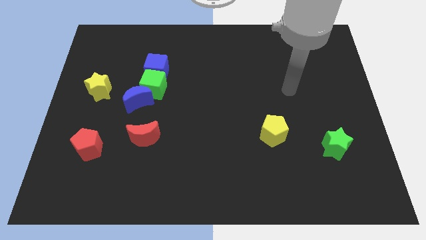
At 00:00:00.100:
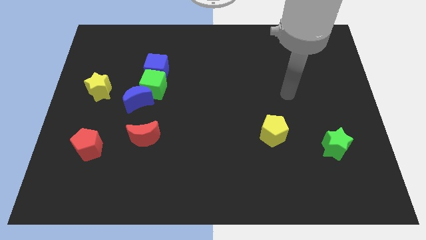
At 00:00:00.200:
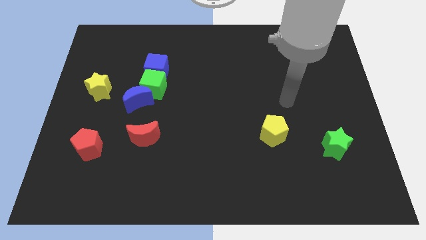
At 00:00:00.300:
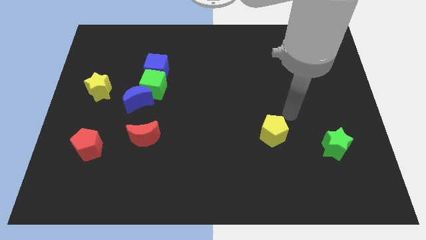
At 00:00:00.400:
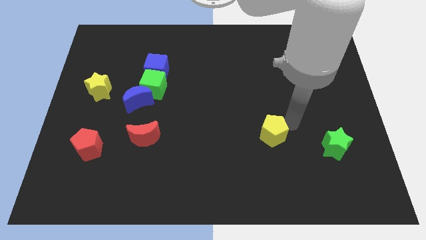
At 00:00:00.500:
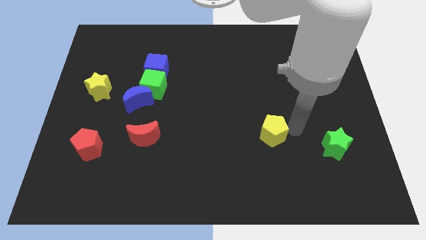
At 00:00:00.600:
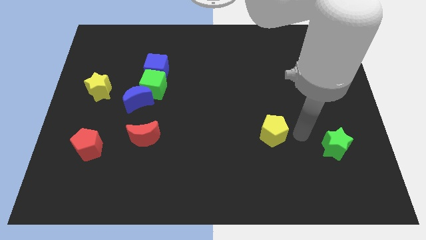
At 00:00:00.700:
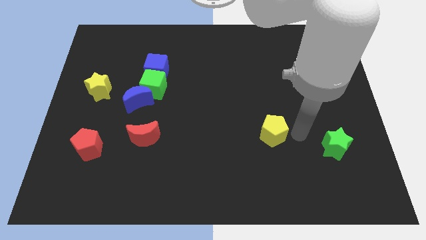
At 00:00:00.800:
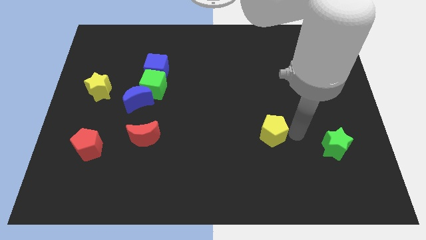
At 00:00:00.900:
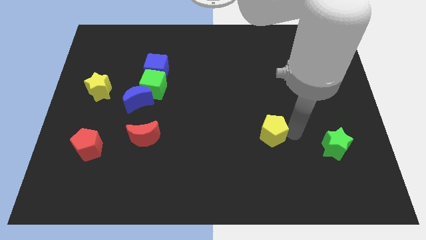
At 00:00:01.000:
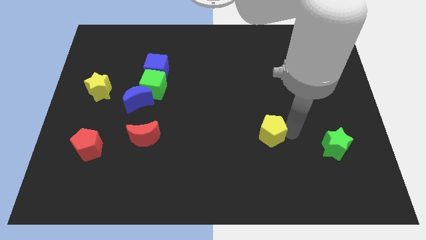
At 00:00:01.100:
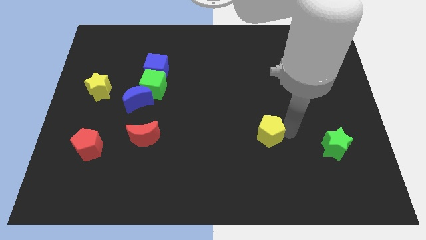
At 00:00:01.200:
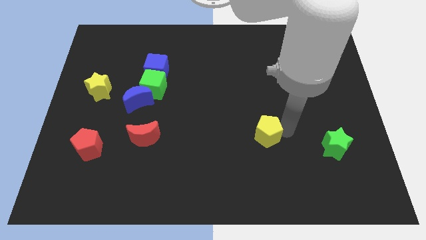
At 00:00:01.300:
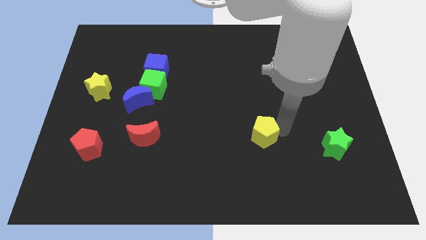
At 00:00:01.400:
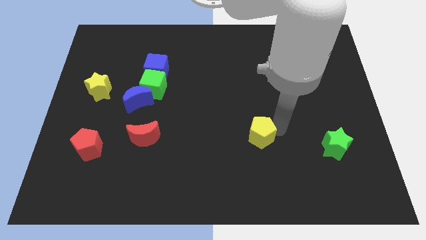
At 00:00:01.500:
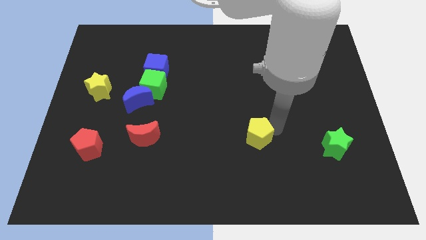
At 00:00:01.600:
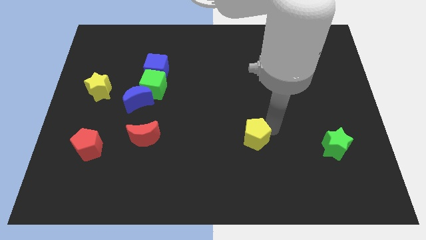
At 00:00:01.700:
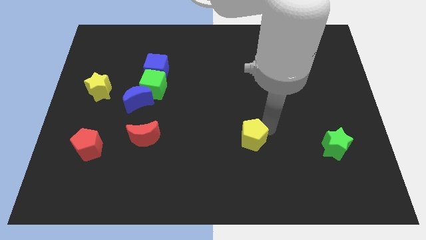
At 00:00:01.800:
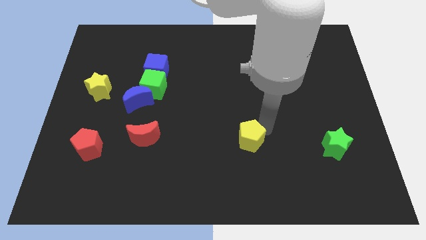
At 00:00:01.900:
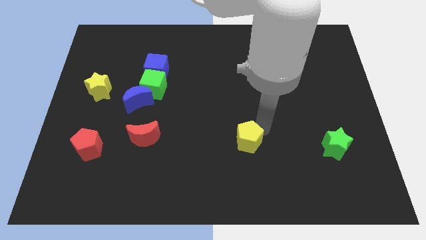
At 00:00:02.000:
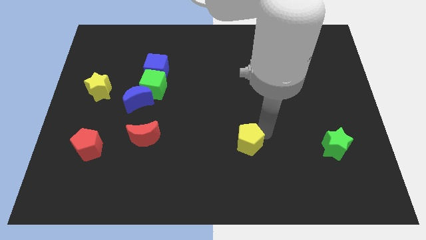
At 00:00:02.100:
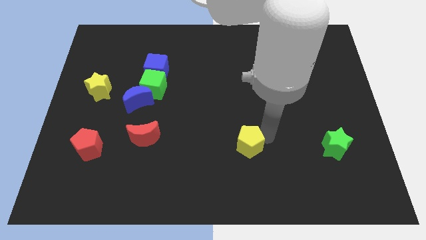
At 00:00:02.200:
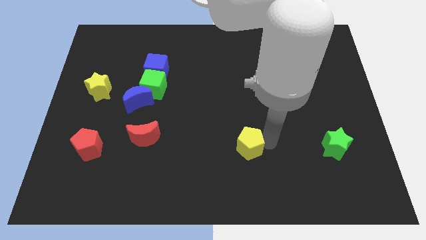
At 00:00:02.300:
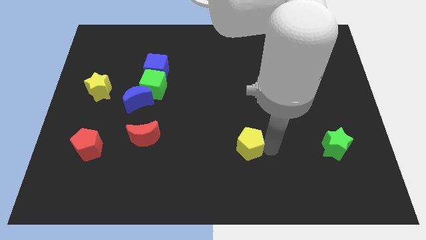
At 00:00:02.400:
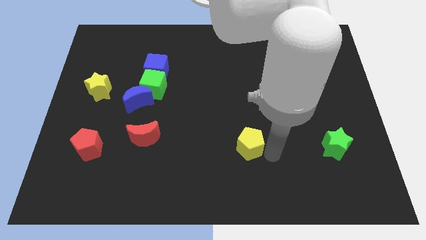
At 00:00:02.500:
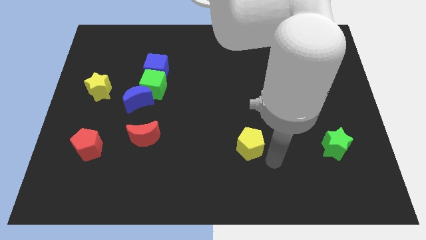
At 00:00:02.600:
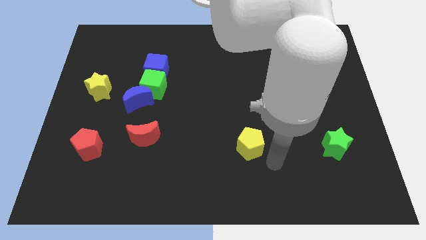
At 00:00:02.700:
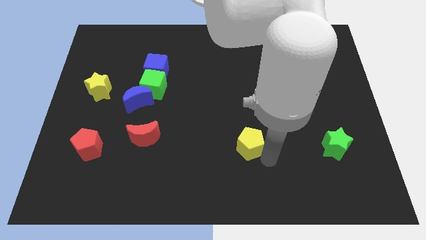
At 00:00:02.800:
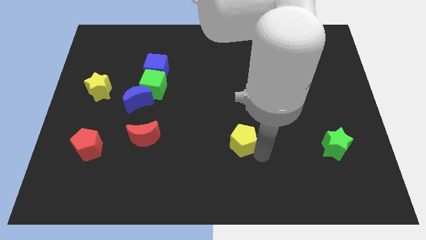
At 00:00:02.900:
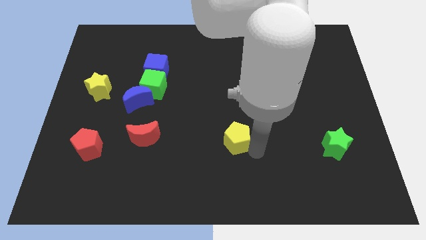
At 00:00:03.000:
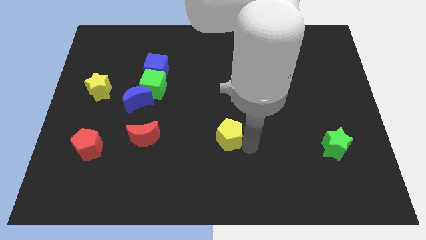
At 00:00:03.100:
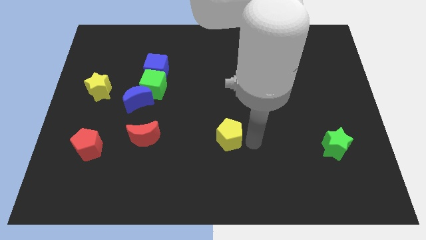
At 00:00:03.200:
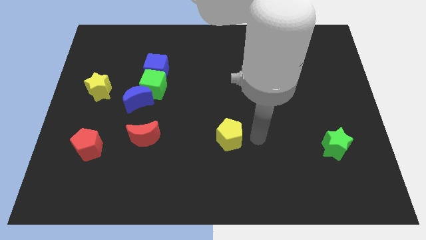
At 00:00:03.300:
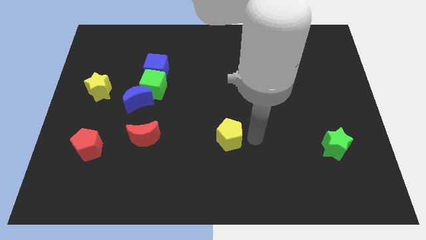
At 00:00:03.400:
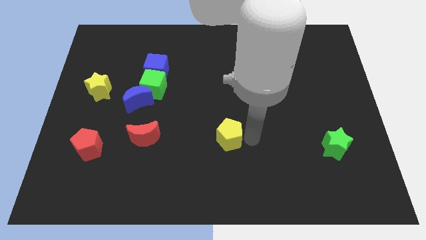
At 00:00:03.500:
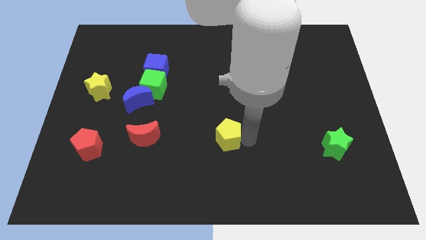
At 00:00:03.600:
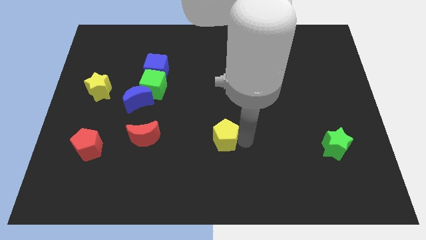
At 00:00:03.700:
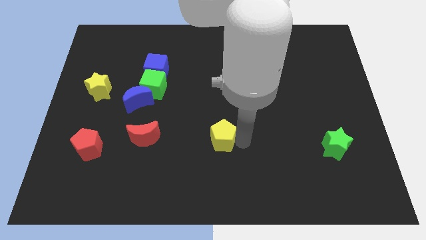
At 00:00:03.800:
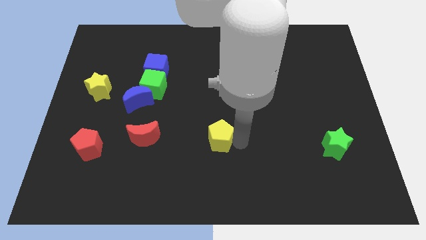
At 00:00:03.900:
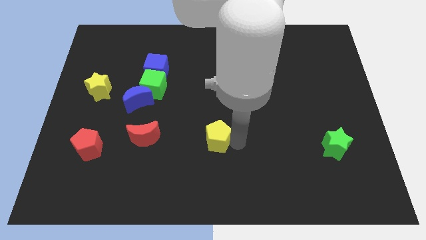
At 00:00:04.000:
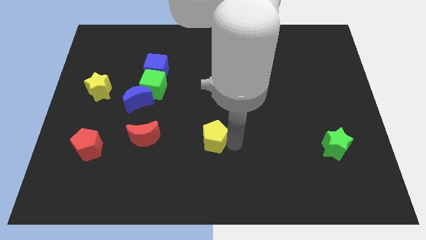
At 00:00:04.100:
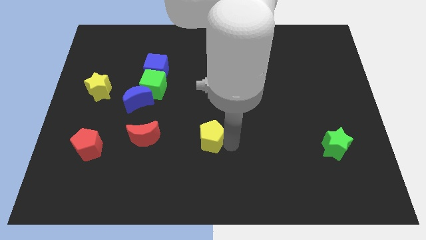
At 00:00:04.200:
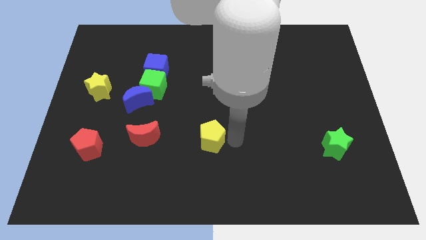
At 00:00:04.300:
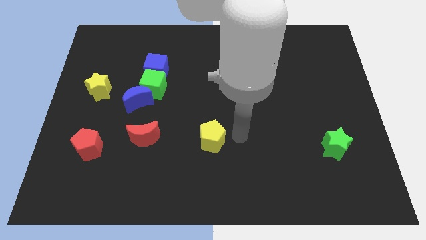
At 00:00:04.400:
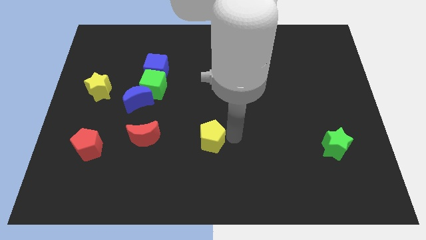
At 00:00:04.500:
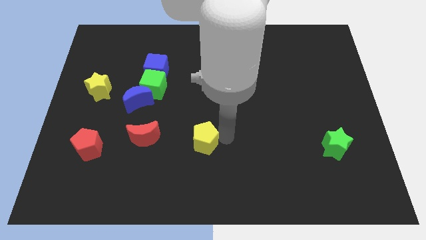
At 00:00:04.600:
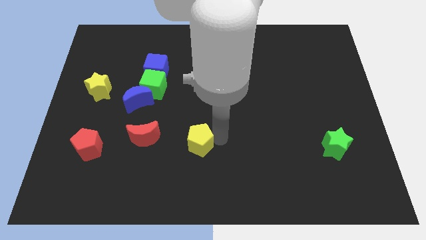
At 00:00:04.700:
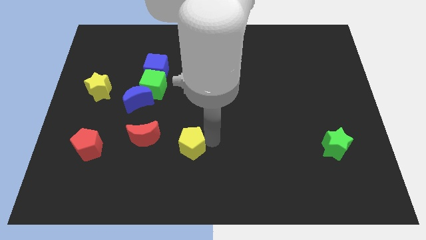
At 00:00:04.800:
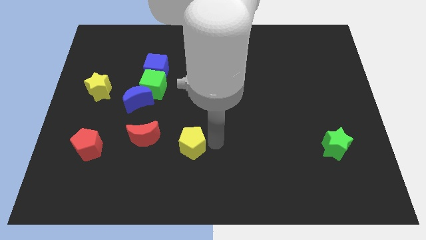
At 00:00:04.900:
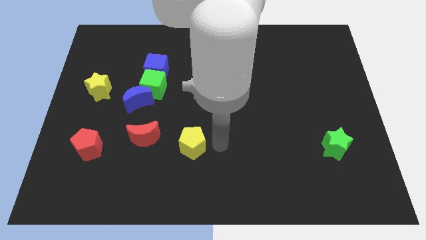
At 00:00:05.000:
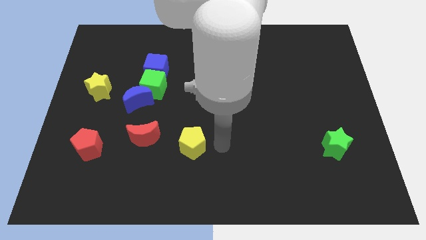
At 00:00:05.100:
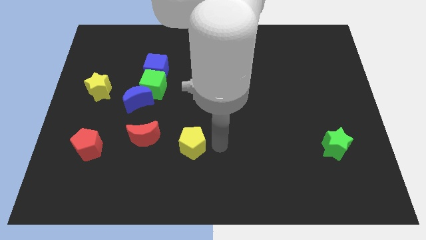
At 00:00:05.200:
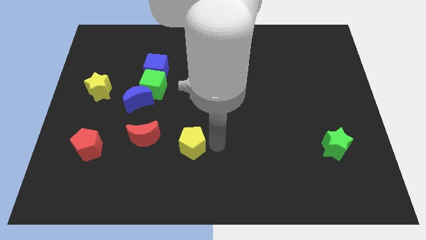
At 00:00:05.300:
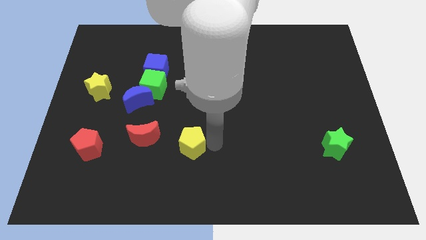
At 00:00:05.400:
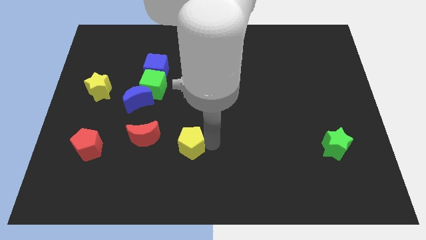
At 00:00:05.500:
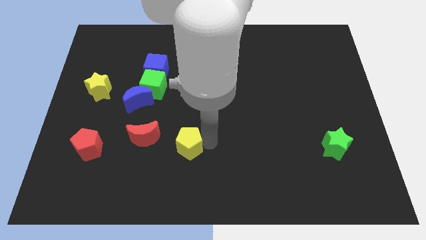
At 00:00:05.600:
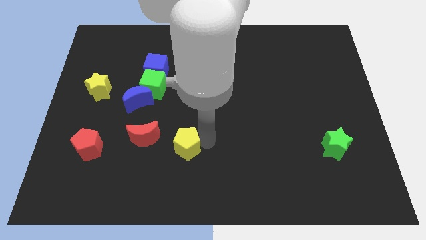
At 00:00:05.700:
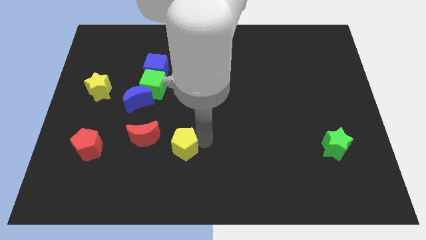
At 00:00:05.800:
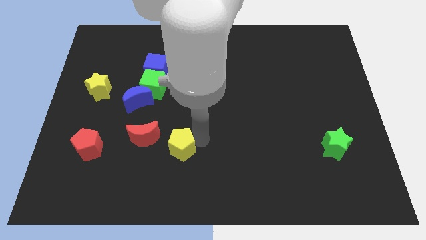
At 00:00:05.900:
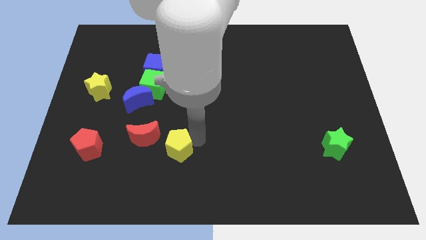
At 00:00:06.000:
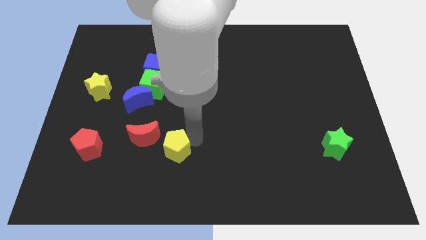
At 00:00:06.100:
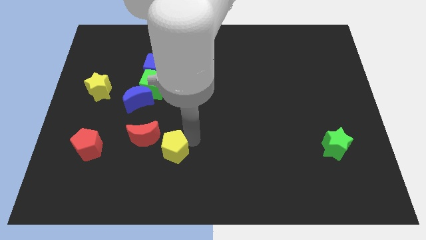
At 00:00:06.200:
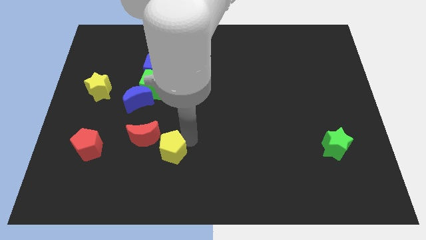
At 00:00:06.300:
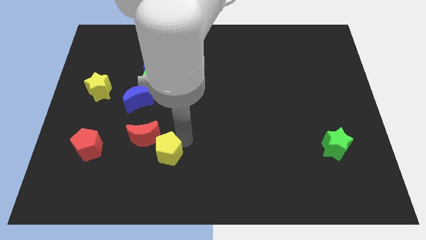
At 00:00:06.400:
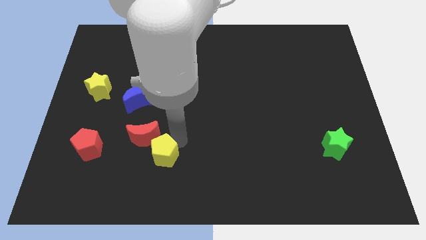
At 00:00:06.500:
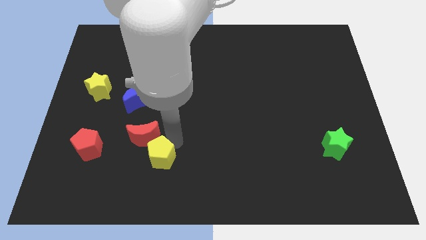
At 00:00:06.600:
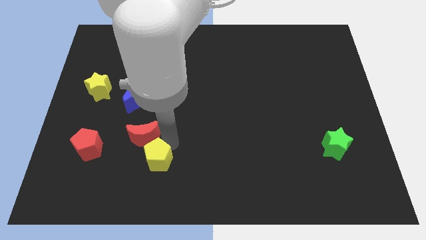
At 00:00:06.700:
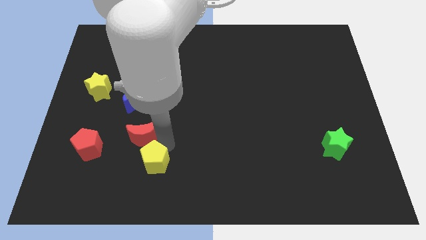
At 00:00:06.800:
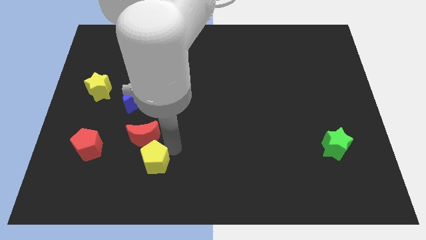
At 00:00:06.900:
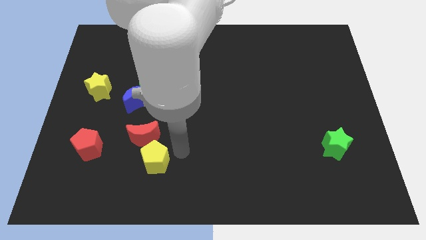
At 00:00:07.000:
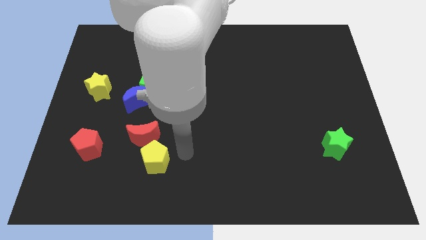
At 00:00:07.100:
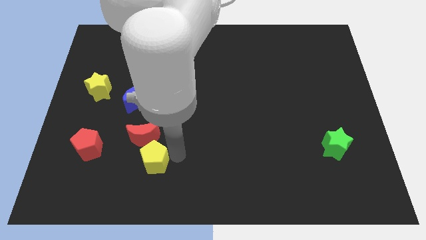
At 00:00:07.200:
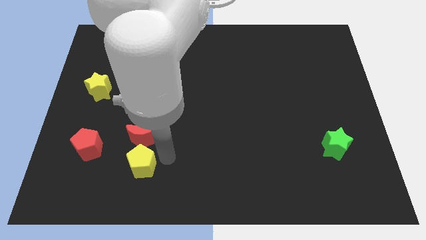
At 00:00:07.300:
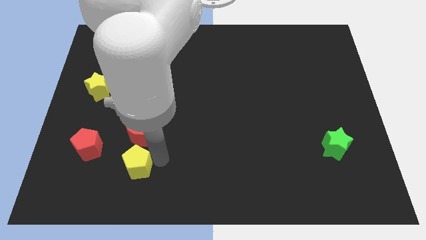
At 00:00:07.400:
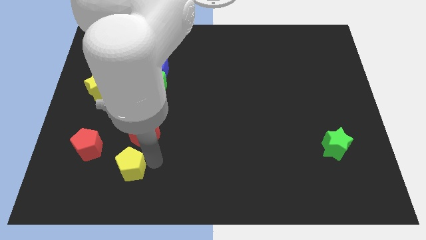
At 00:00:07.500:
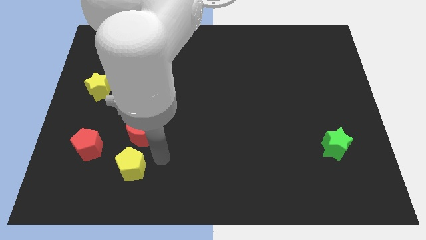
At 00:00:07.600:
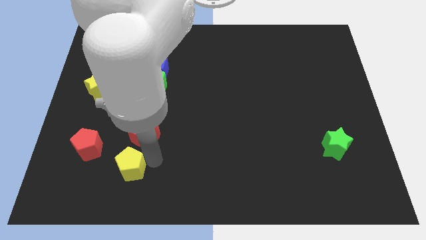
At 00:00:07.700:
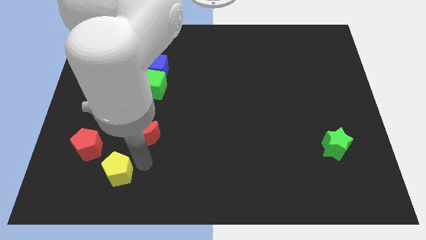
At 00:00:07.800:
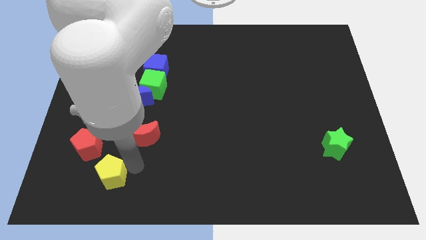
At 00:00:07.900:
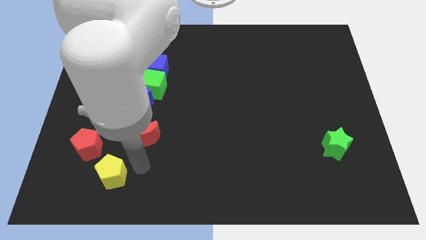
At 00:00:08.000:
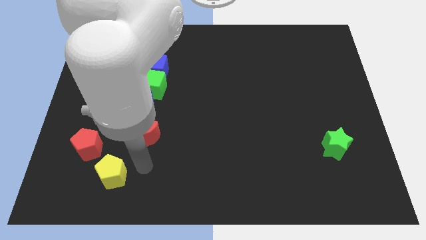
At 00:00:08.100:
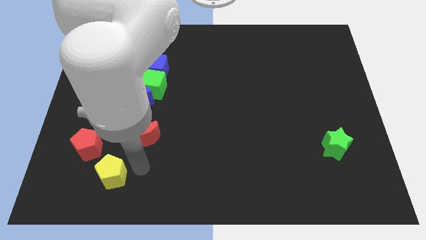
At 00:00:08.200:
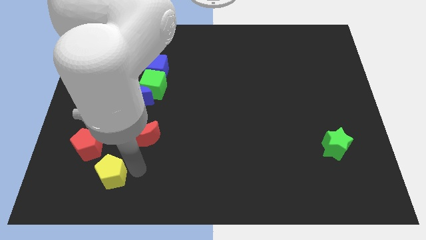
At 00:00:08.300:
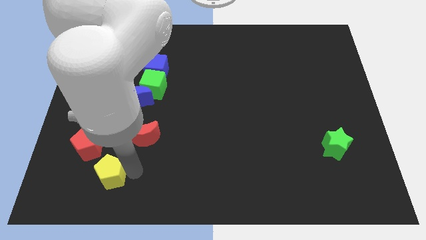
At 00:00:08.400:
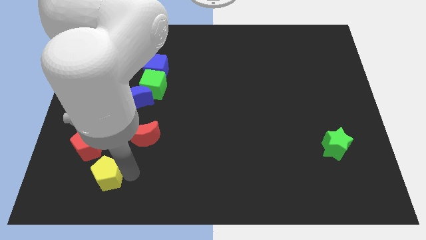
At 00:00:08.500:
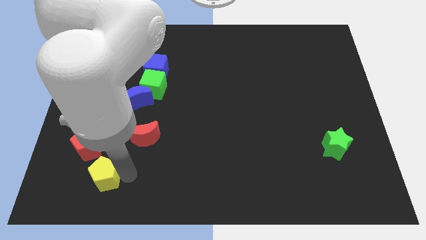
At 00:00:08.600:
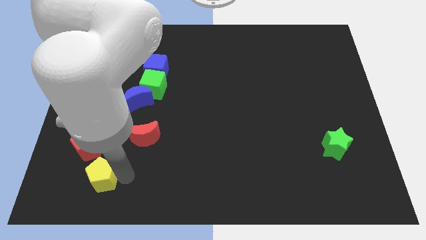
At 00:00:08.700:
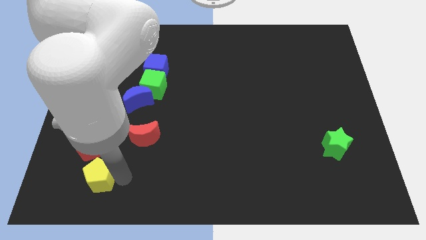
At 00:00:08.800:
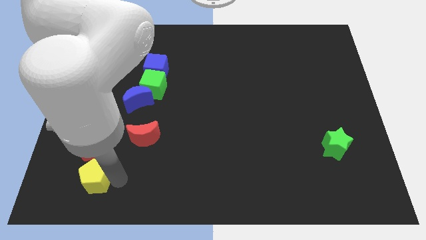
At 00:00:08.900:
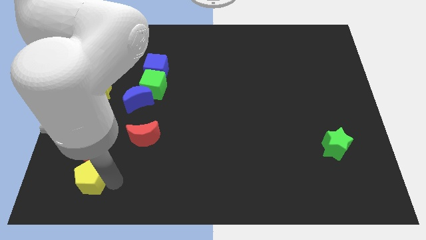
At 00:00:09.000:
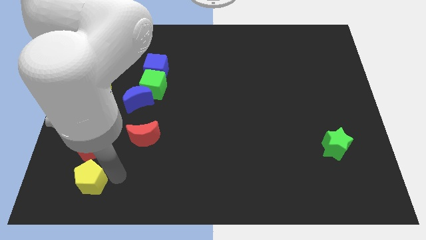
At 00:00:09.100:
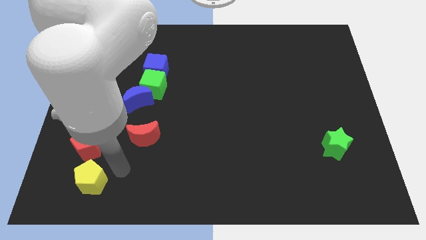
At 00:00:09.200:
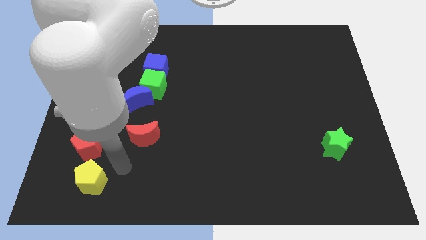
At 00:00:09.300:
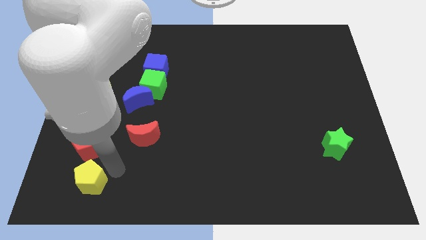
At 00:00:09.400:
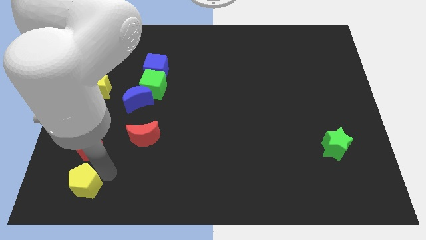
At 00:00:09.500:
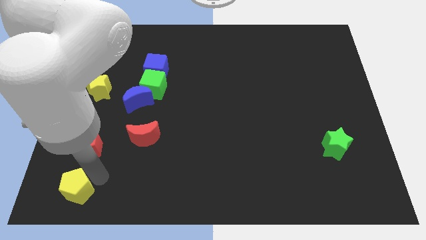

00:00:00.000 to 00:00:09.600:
put the yellow pentagon to the bottom left of the board
